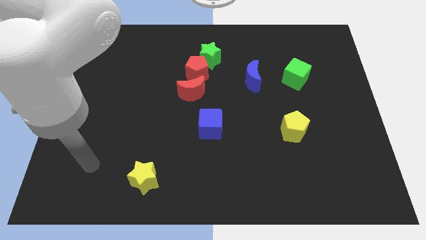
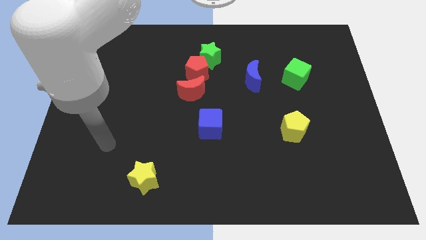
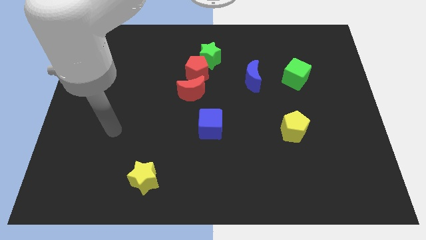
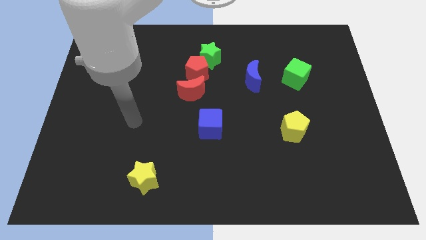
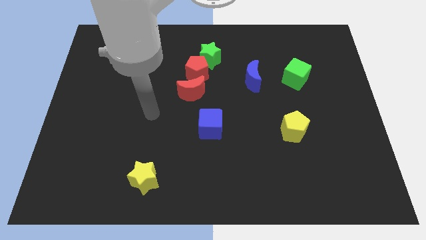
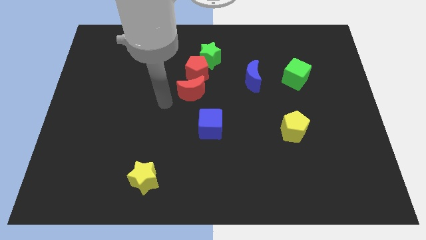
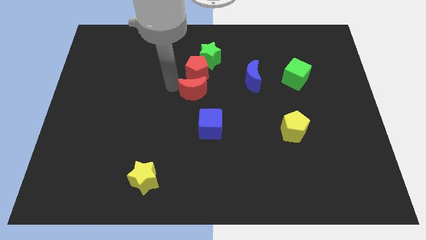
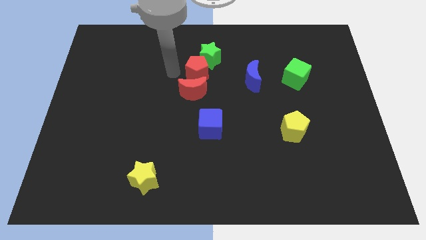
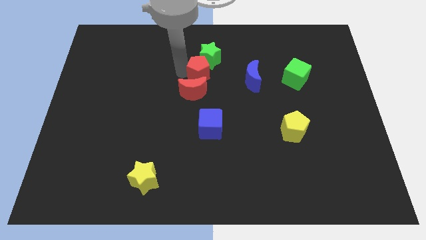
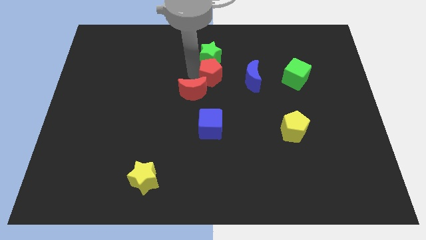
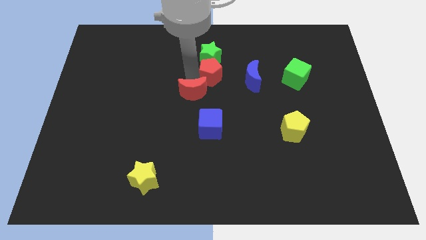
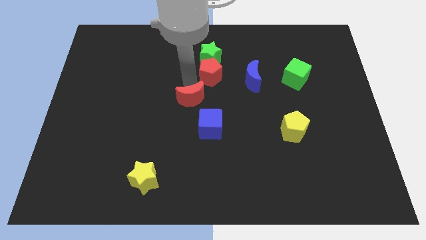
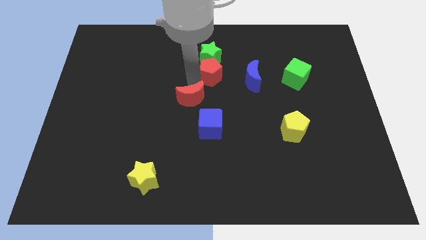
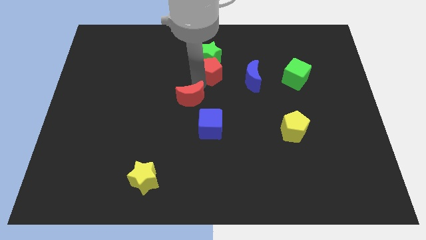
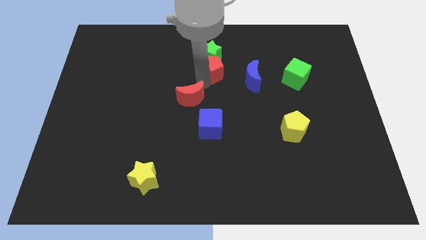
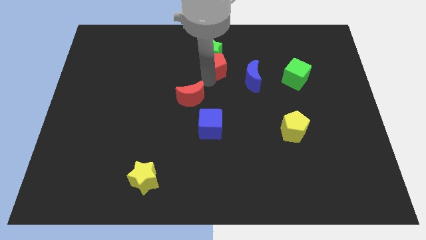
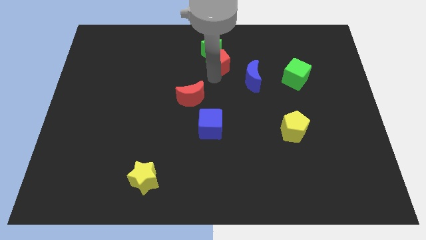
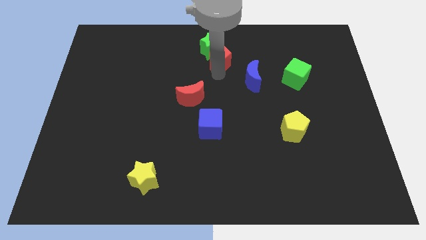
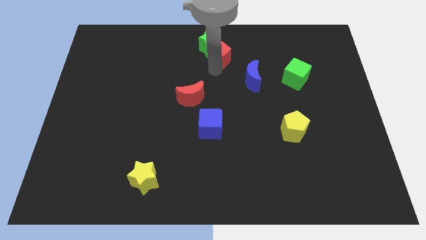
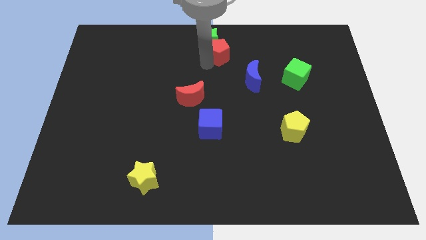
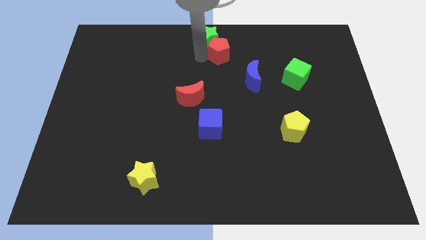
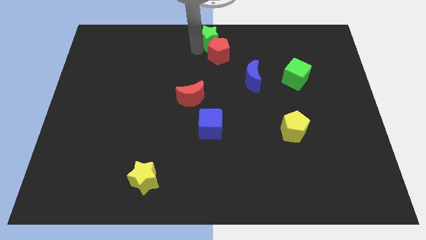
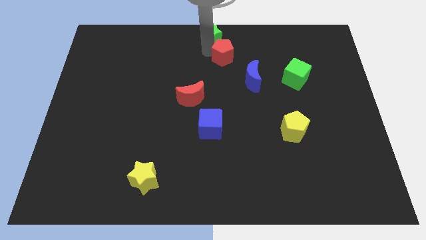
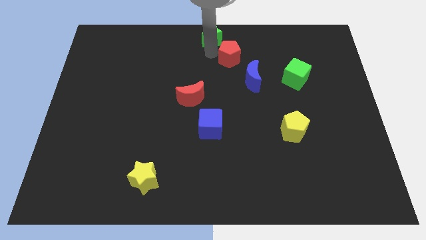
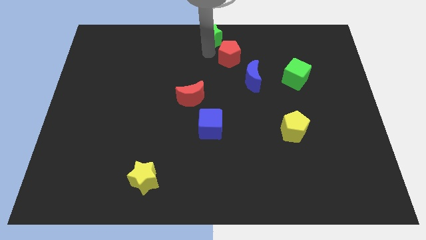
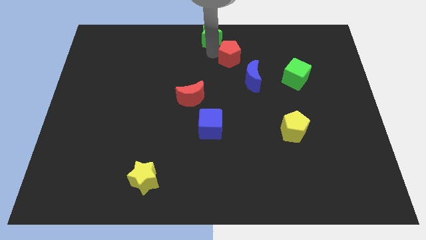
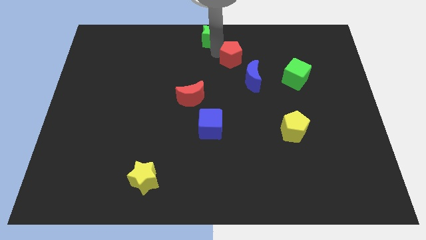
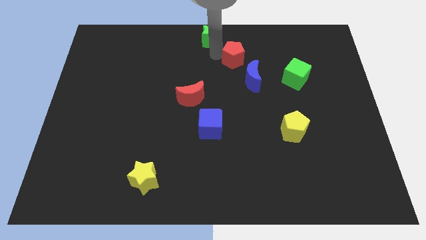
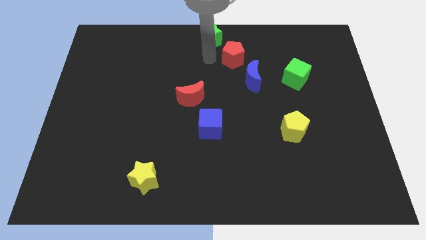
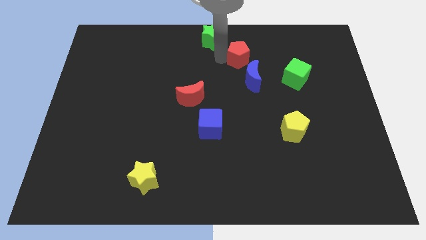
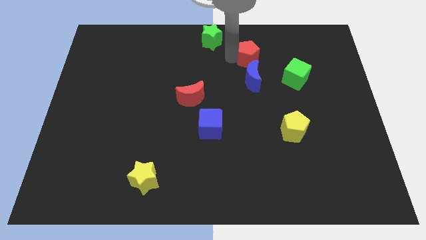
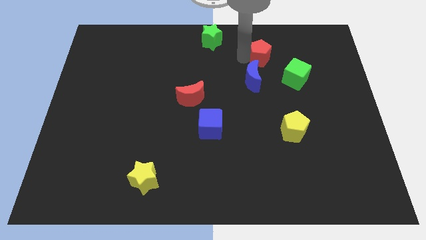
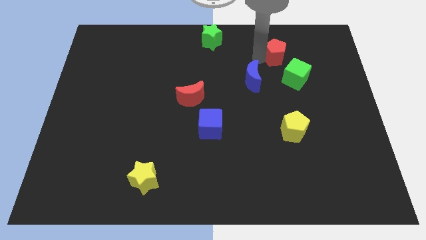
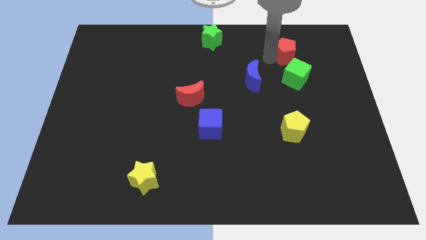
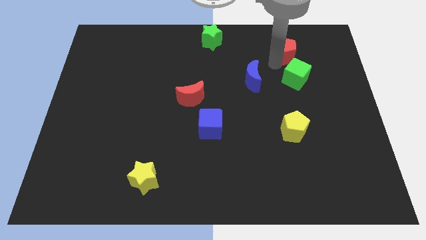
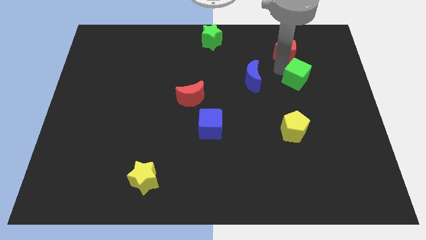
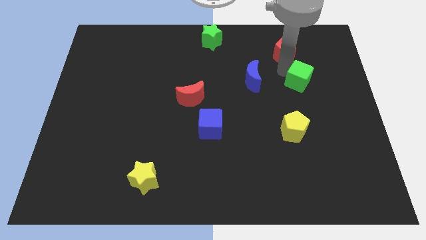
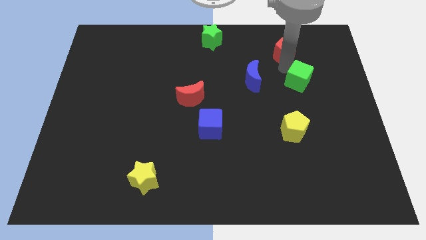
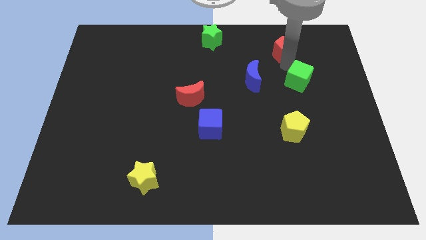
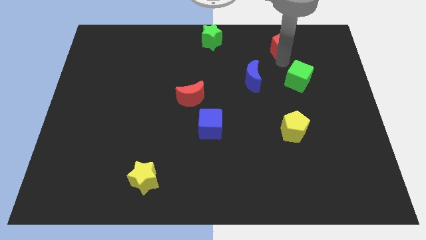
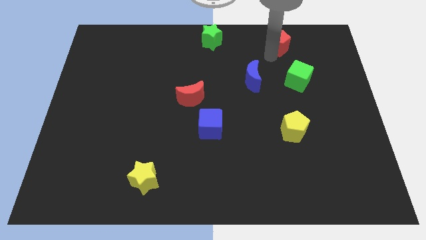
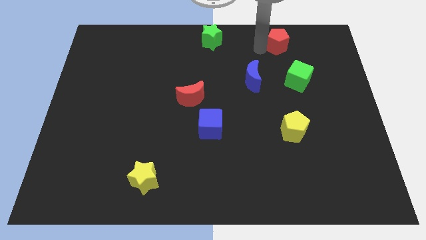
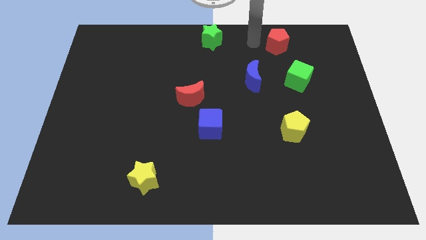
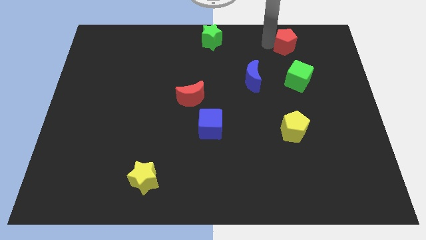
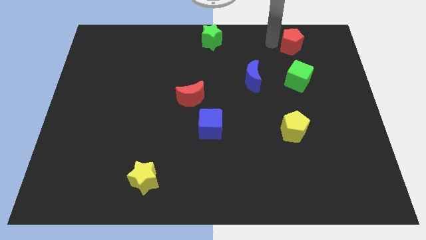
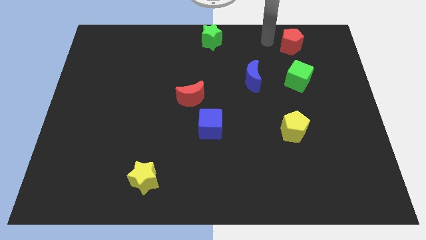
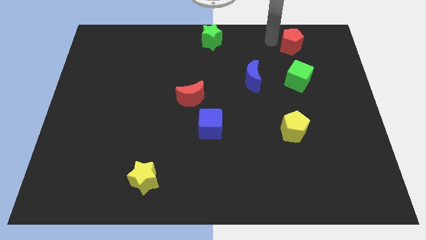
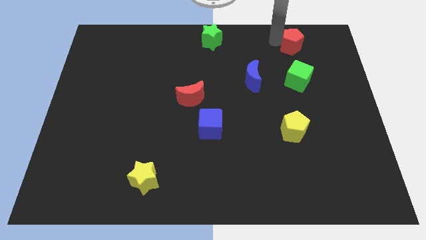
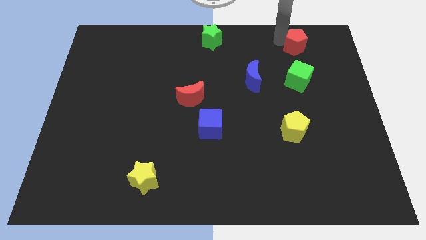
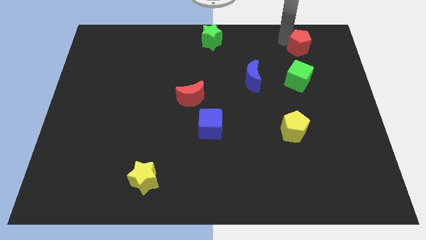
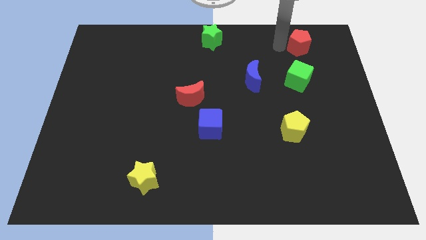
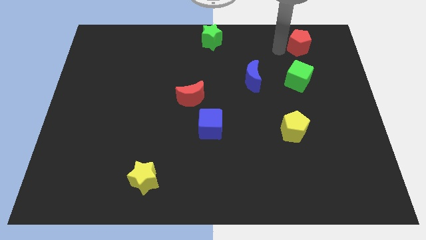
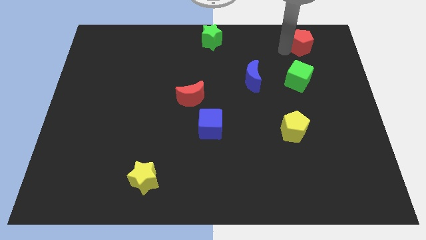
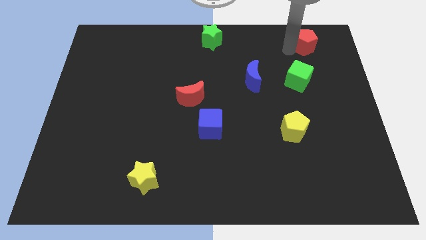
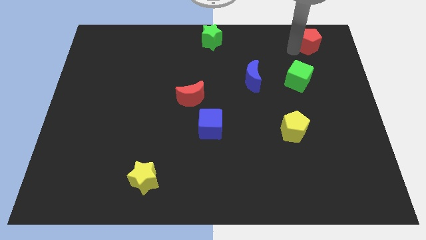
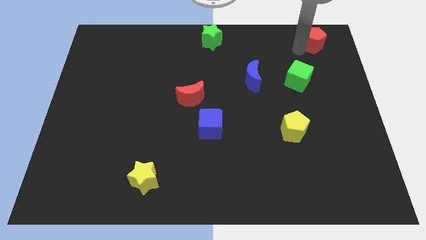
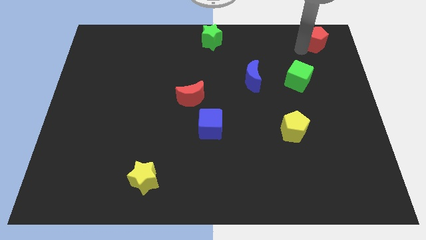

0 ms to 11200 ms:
push the red pentagon to the top right of the board

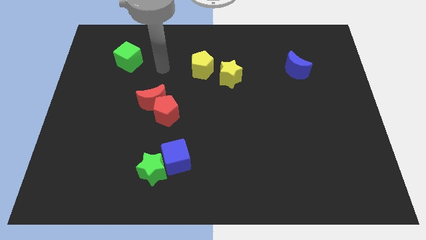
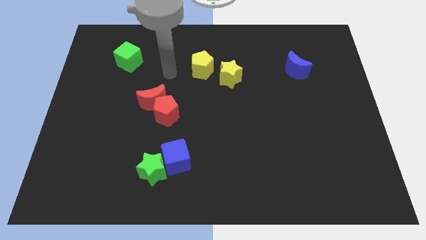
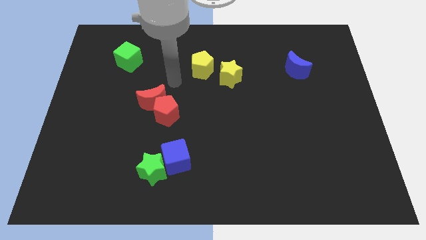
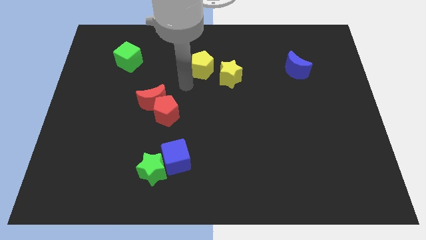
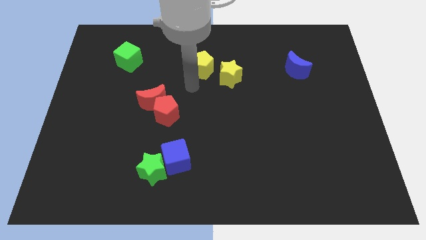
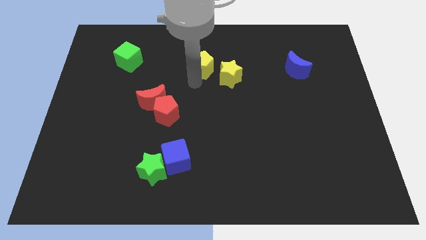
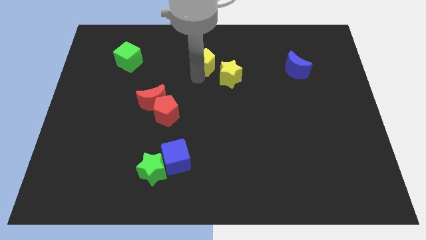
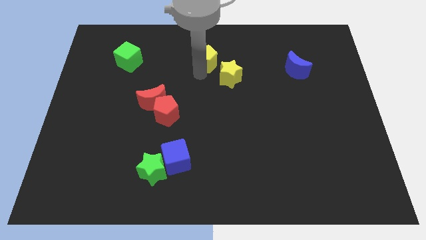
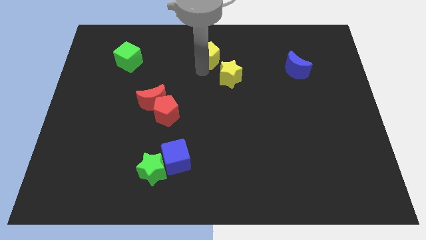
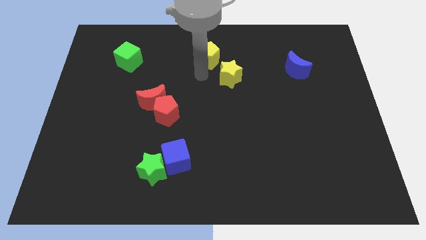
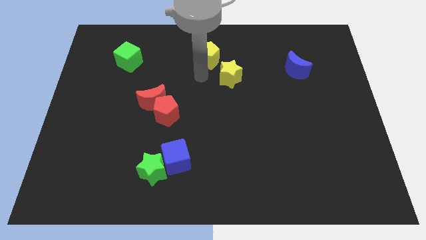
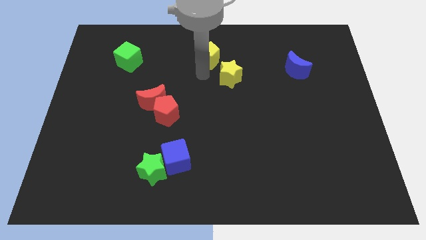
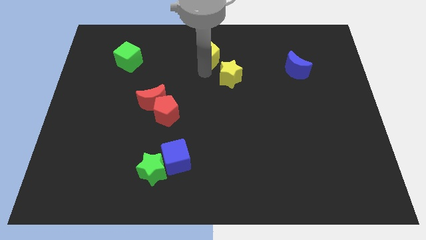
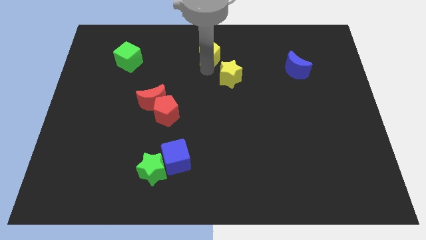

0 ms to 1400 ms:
slide the yellow pentagon to the towards your base
